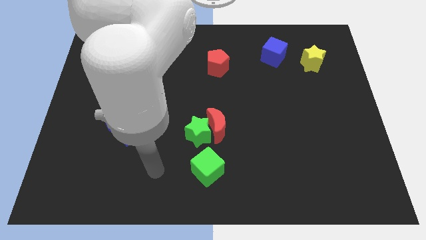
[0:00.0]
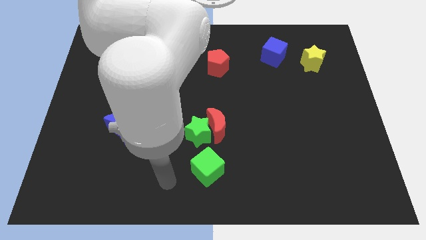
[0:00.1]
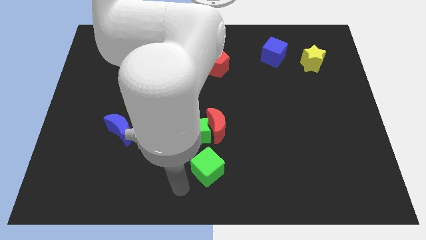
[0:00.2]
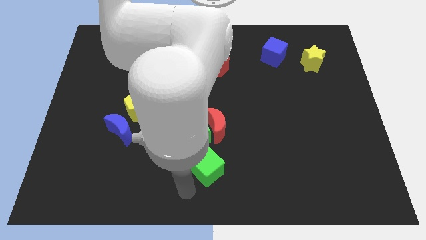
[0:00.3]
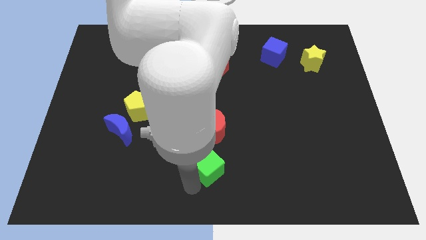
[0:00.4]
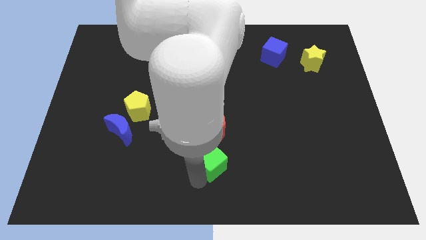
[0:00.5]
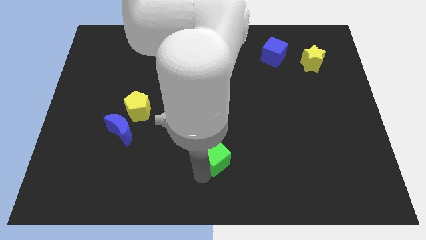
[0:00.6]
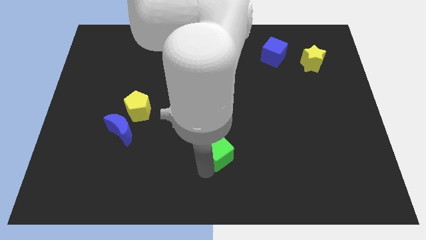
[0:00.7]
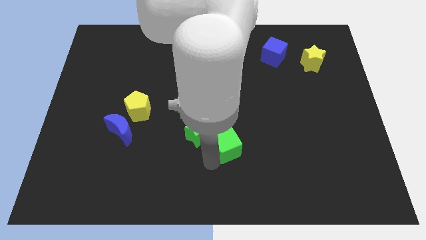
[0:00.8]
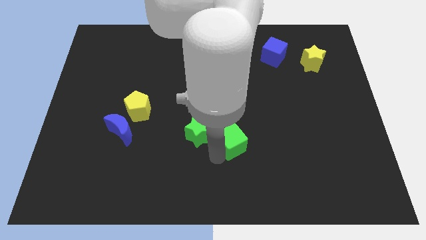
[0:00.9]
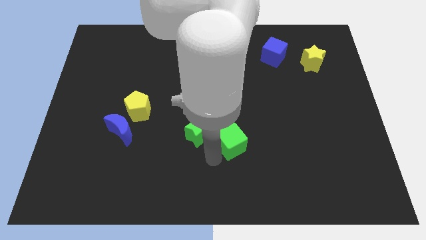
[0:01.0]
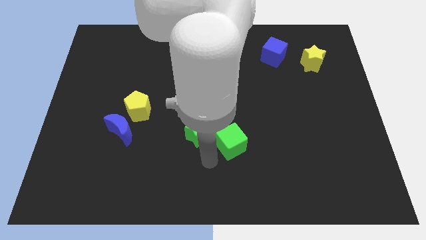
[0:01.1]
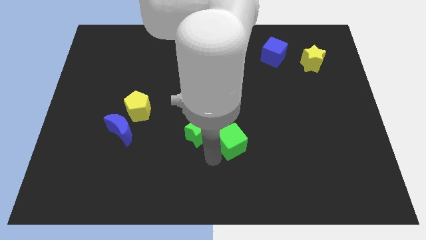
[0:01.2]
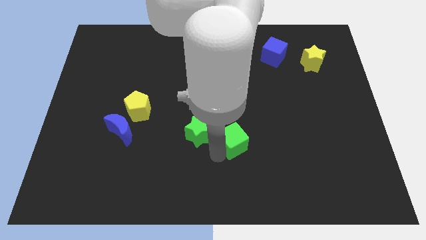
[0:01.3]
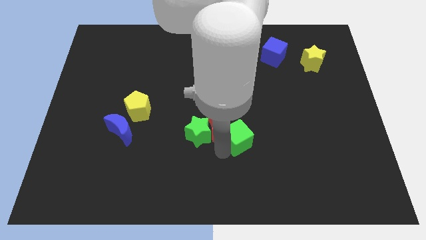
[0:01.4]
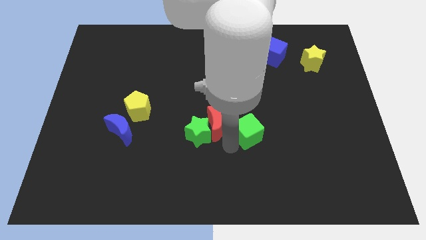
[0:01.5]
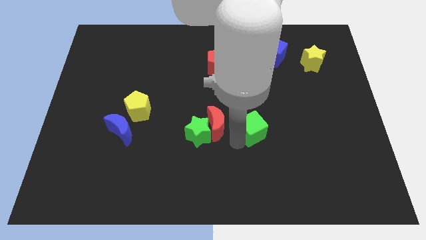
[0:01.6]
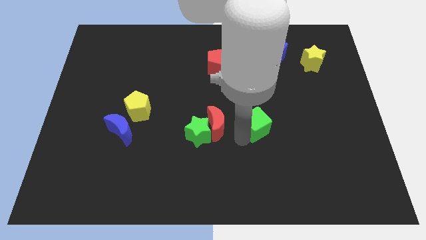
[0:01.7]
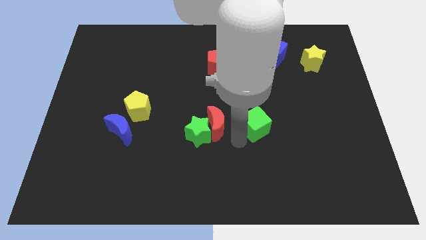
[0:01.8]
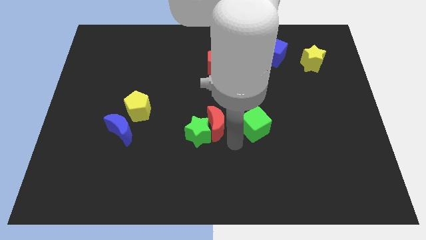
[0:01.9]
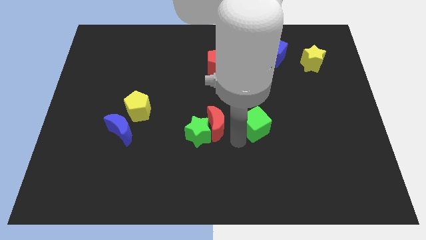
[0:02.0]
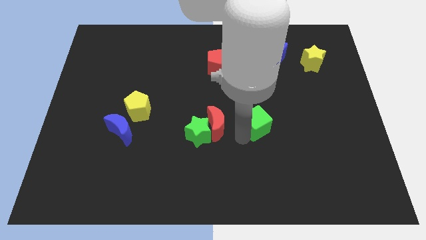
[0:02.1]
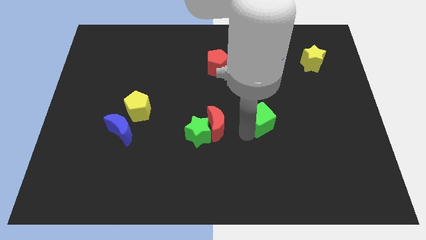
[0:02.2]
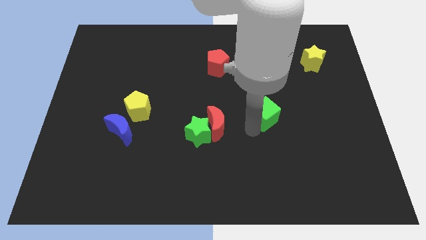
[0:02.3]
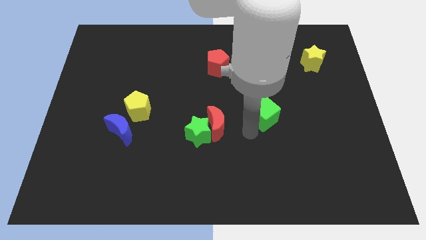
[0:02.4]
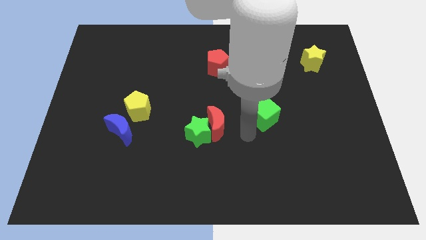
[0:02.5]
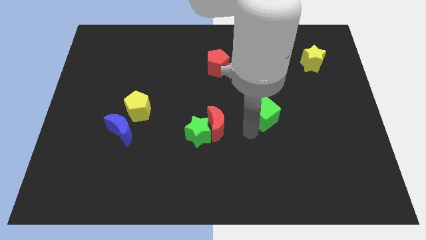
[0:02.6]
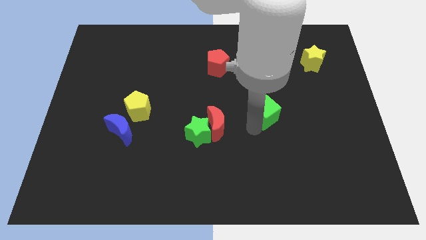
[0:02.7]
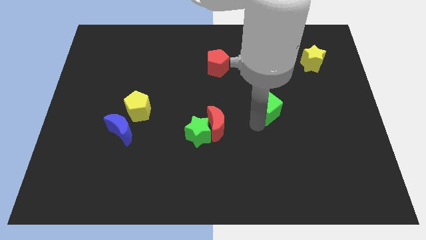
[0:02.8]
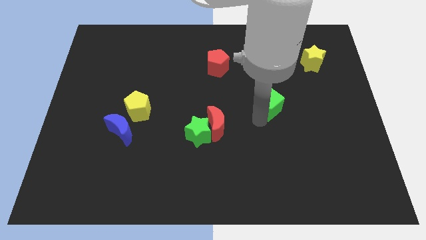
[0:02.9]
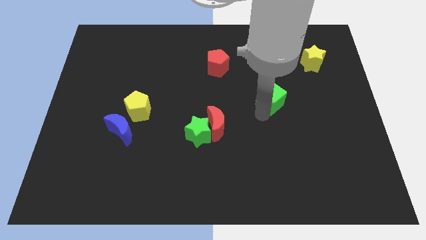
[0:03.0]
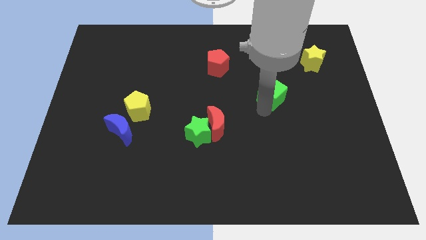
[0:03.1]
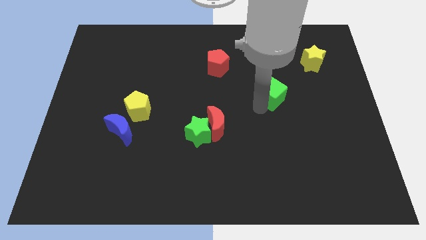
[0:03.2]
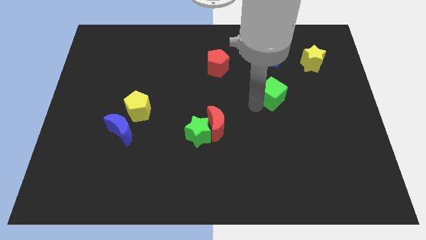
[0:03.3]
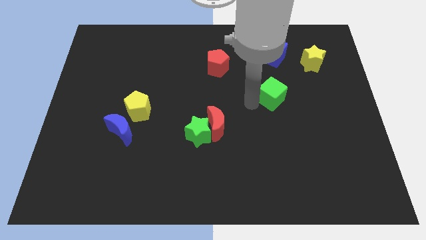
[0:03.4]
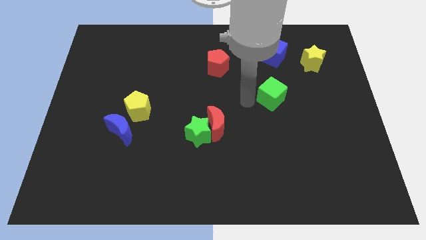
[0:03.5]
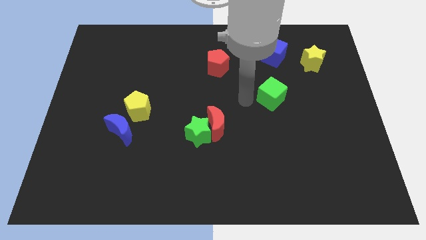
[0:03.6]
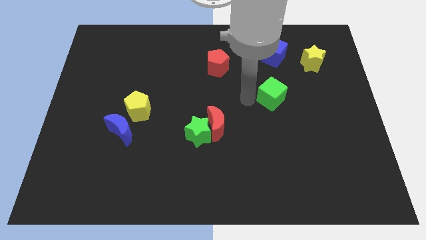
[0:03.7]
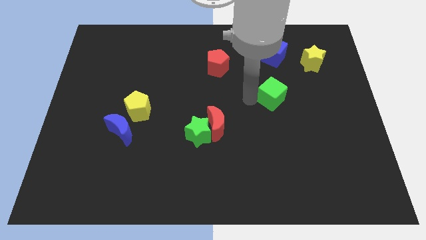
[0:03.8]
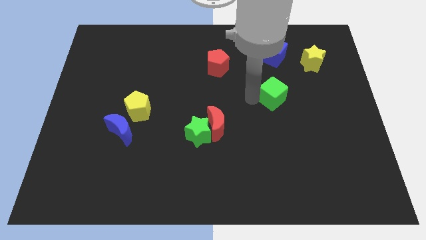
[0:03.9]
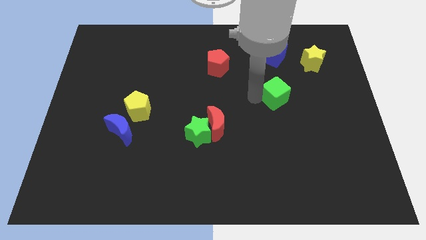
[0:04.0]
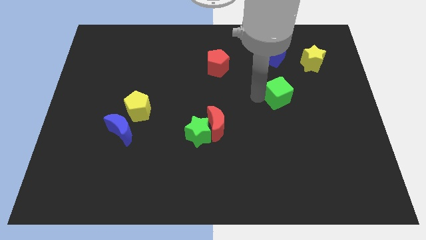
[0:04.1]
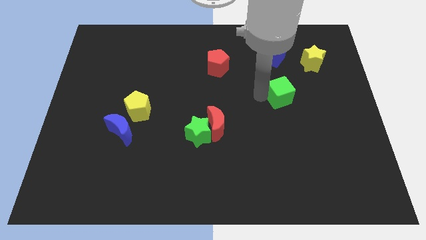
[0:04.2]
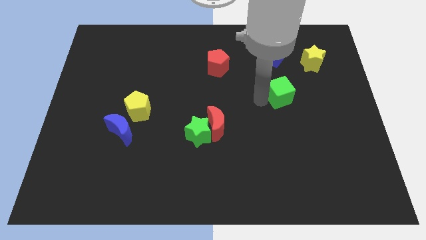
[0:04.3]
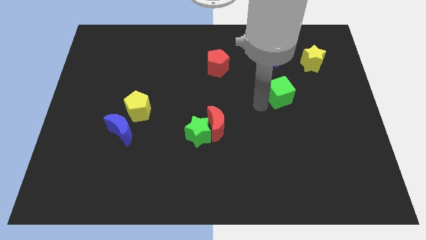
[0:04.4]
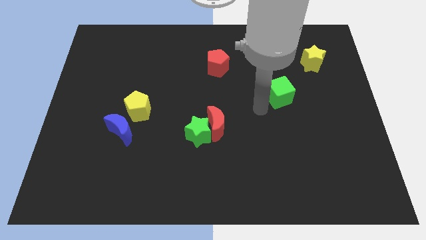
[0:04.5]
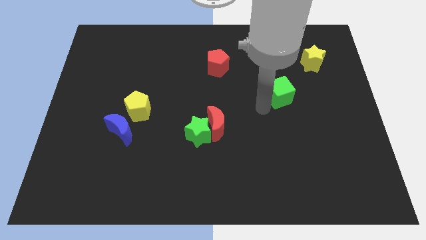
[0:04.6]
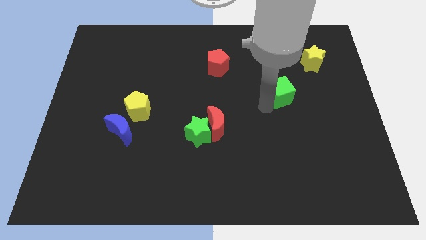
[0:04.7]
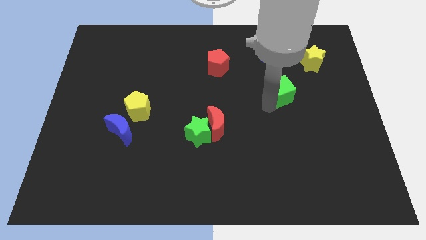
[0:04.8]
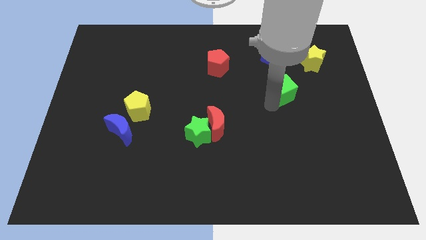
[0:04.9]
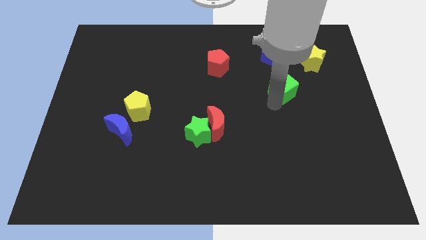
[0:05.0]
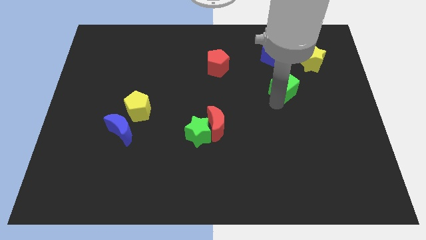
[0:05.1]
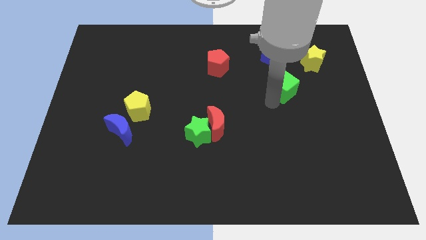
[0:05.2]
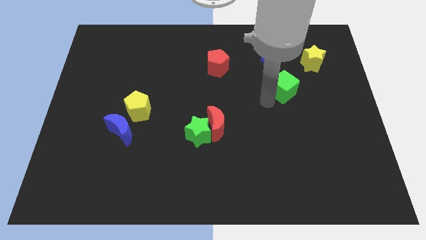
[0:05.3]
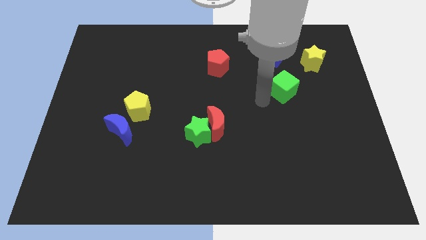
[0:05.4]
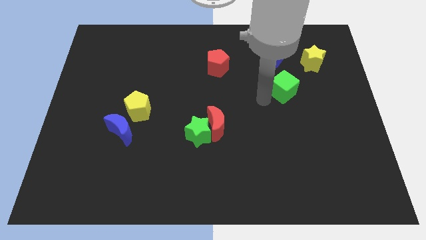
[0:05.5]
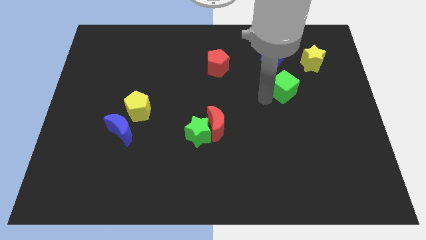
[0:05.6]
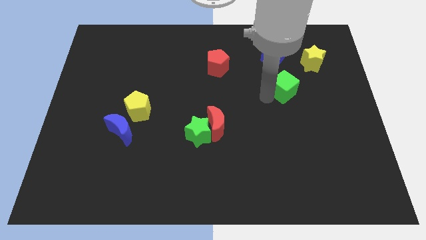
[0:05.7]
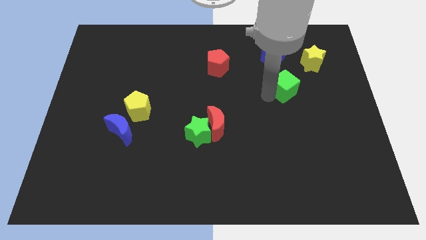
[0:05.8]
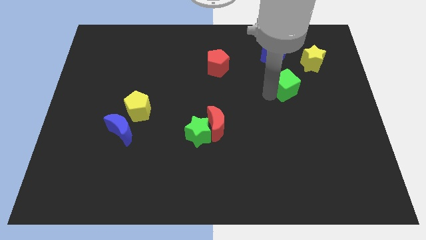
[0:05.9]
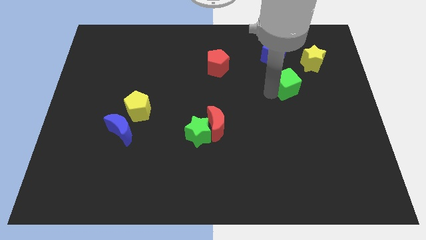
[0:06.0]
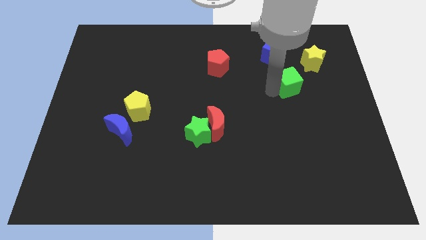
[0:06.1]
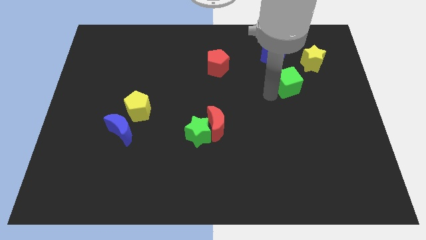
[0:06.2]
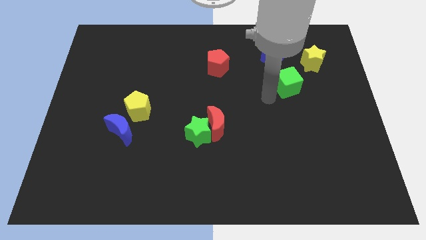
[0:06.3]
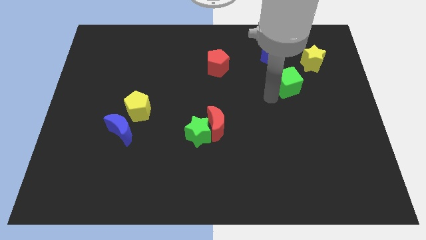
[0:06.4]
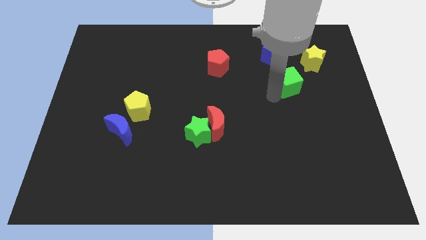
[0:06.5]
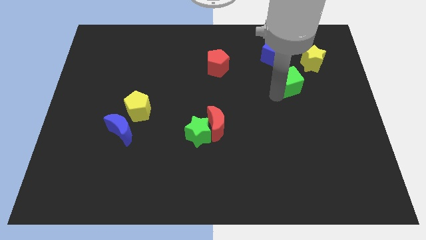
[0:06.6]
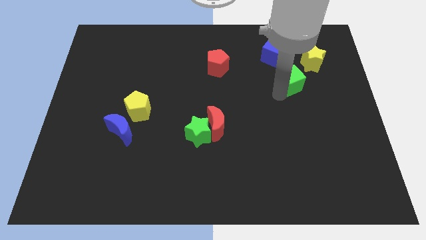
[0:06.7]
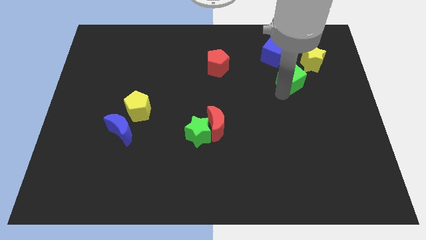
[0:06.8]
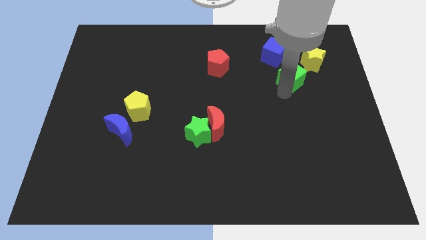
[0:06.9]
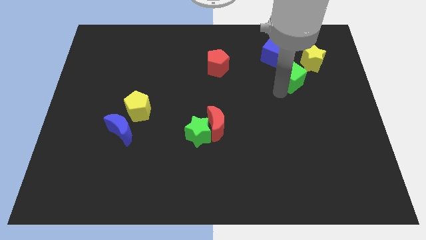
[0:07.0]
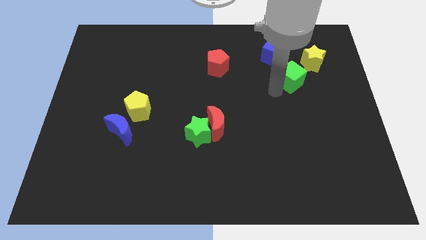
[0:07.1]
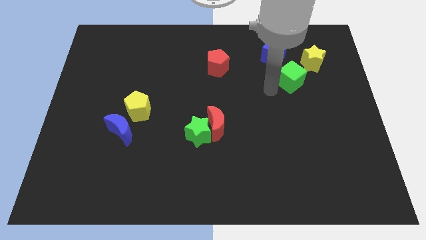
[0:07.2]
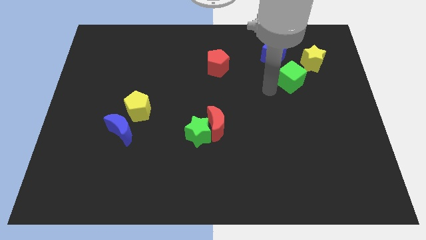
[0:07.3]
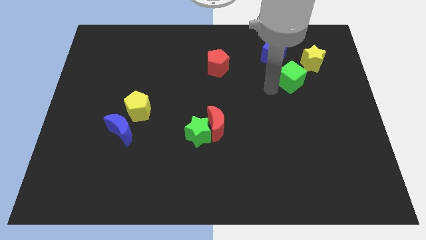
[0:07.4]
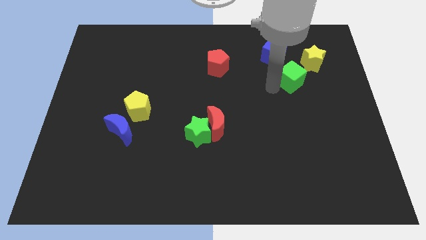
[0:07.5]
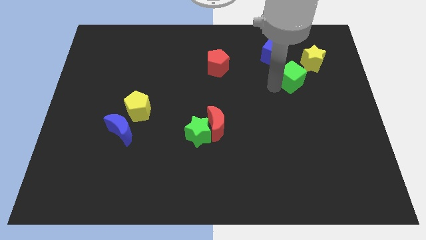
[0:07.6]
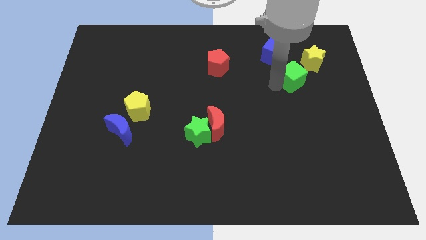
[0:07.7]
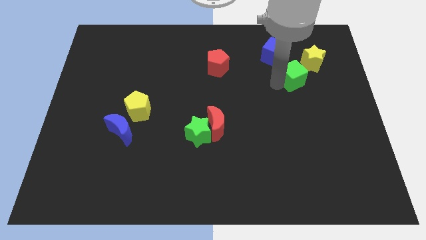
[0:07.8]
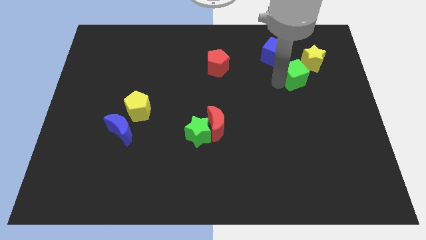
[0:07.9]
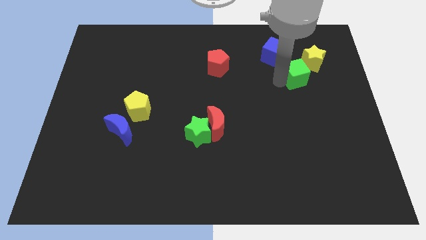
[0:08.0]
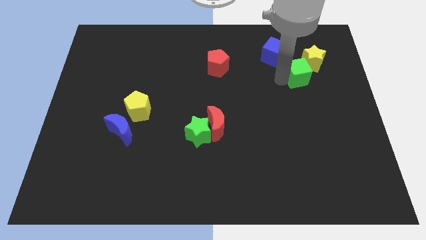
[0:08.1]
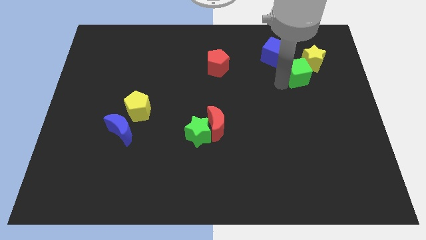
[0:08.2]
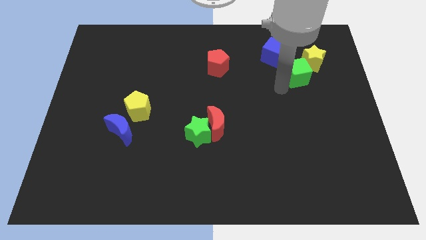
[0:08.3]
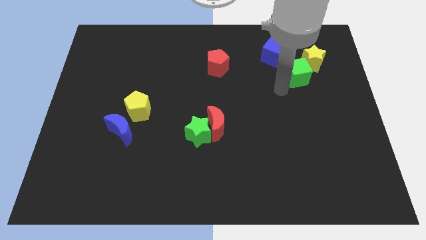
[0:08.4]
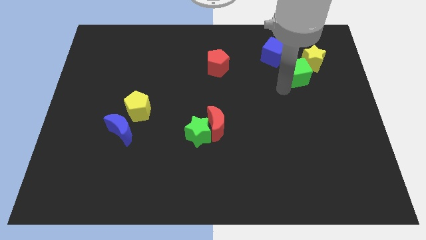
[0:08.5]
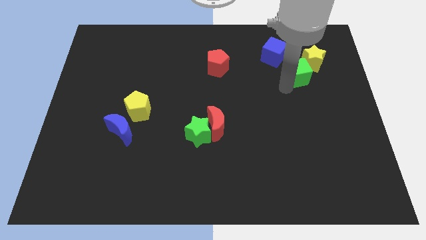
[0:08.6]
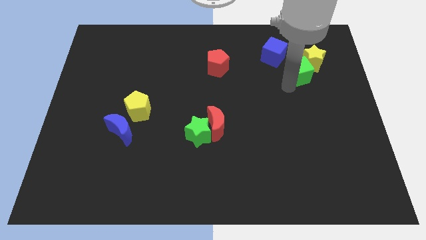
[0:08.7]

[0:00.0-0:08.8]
put the green cube to the yellow star
